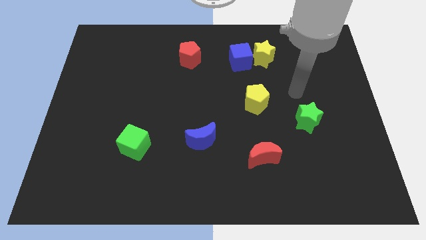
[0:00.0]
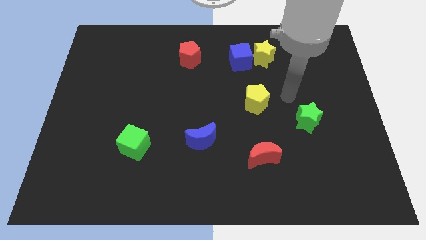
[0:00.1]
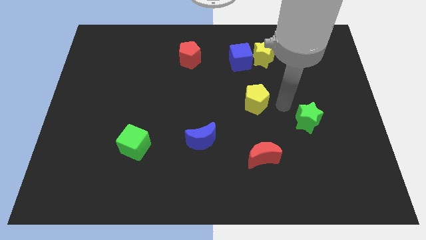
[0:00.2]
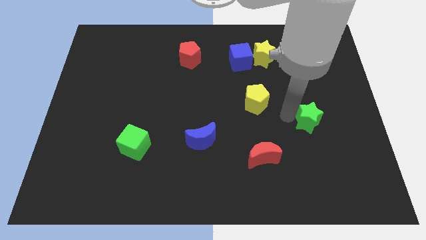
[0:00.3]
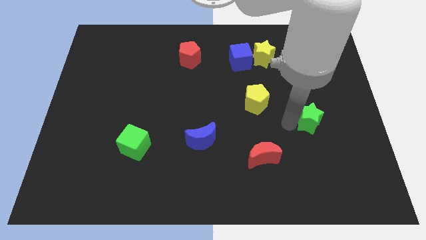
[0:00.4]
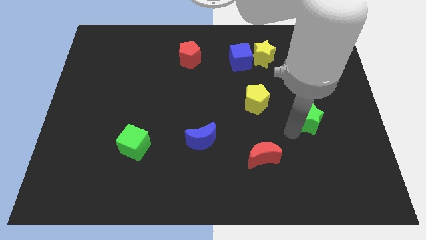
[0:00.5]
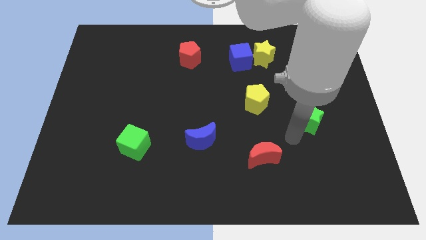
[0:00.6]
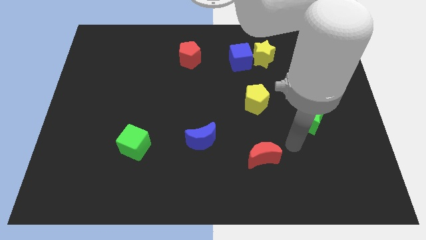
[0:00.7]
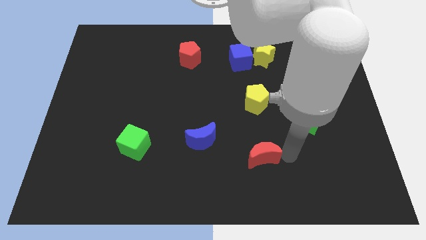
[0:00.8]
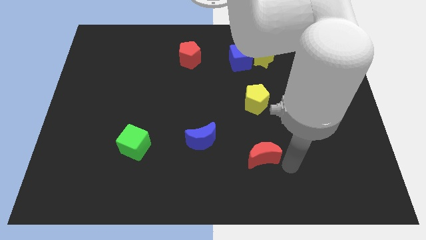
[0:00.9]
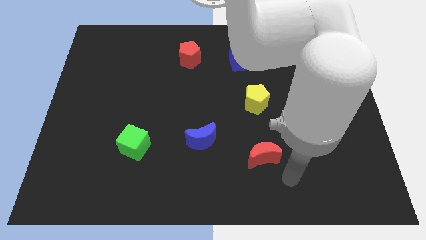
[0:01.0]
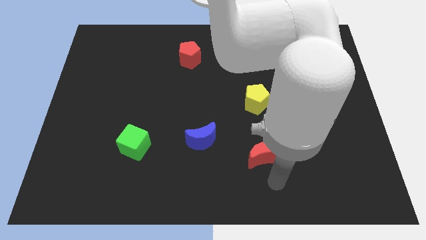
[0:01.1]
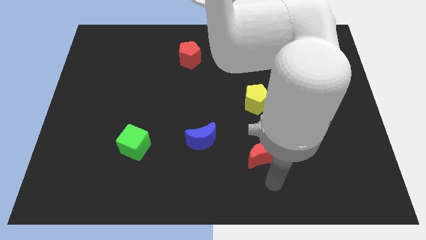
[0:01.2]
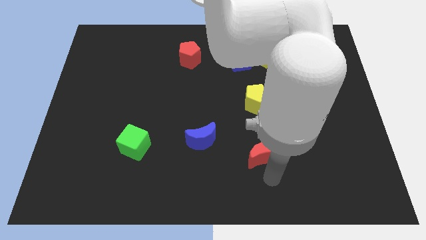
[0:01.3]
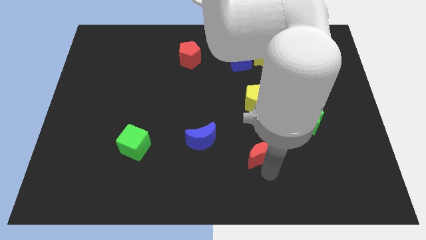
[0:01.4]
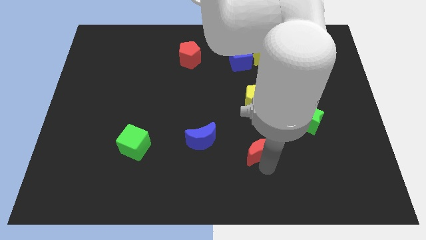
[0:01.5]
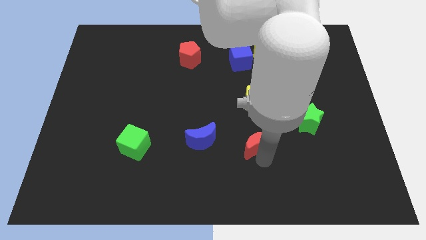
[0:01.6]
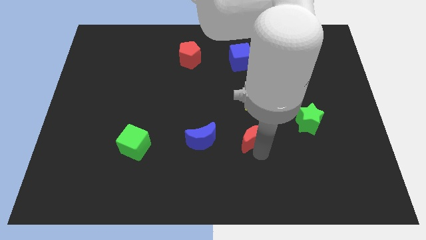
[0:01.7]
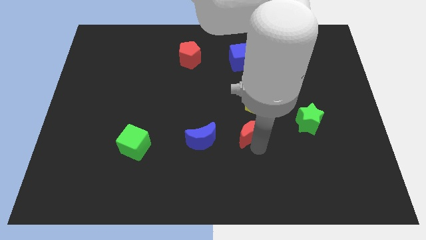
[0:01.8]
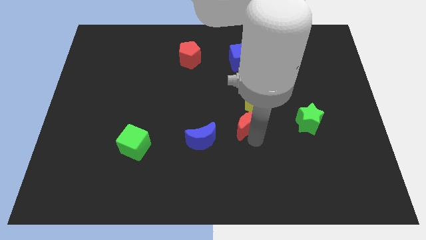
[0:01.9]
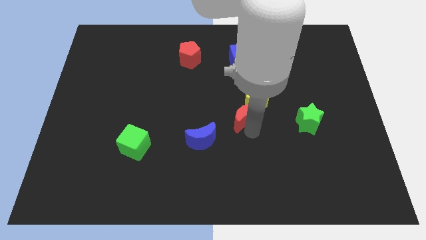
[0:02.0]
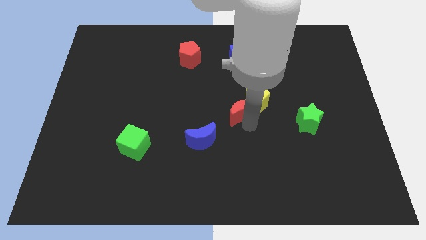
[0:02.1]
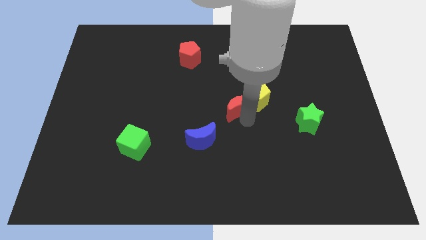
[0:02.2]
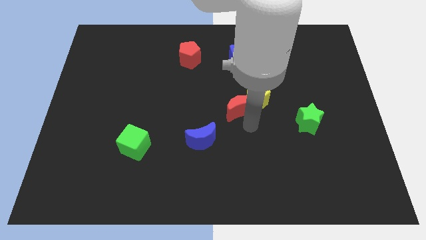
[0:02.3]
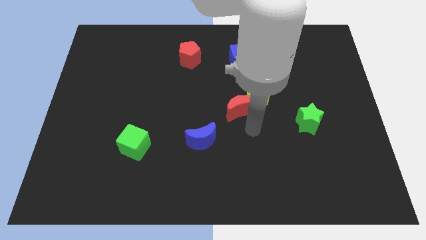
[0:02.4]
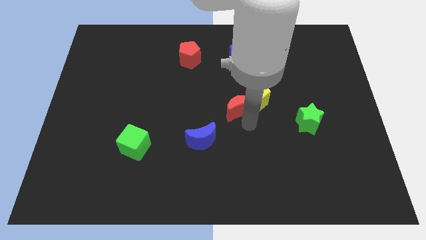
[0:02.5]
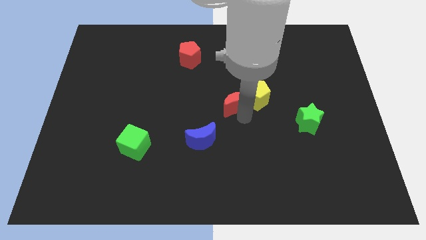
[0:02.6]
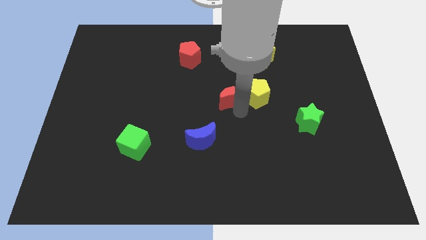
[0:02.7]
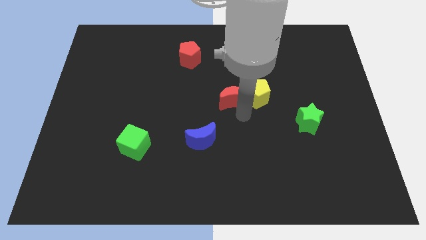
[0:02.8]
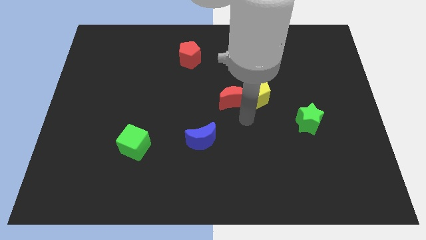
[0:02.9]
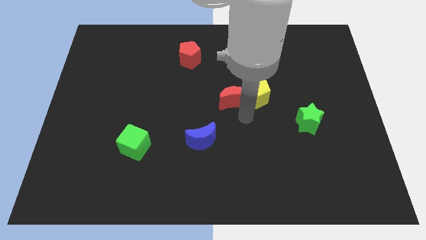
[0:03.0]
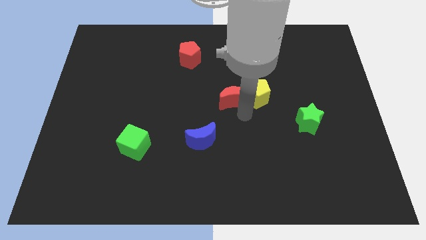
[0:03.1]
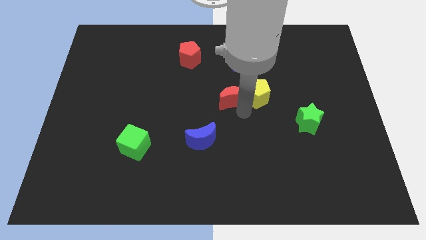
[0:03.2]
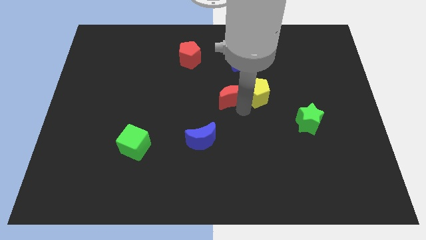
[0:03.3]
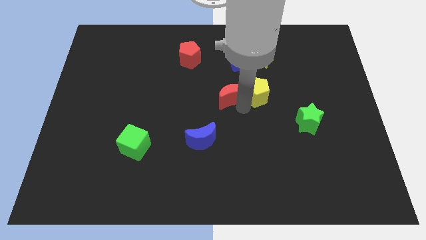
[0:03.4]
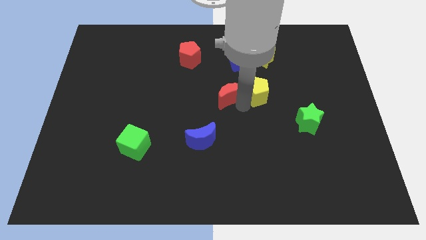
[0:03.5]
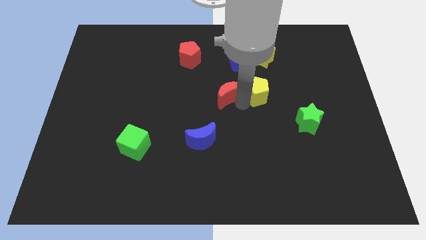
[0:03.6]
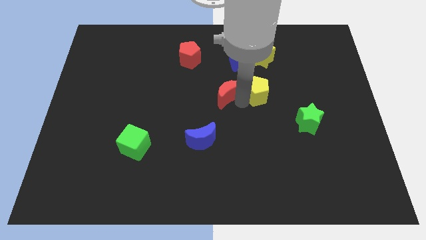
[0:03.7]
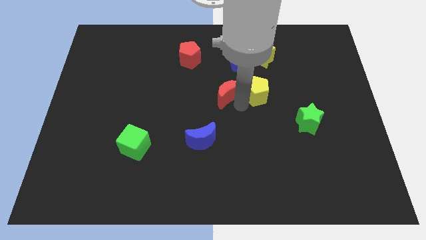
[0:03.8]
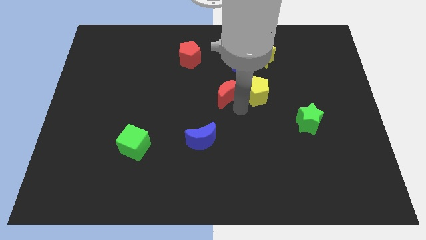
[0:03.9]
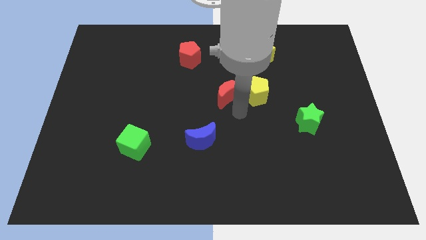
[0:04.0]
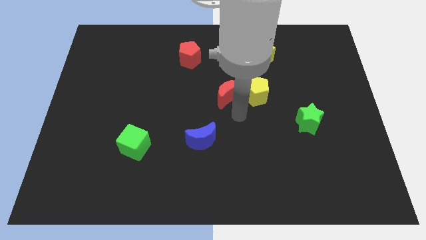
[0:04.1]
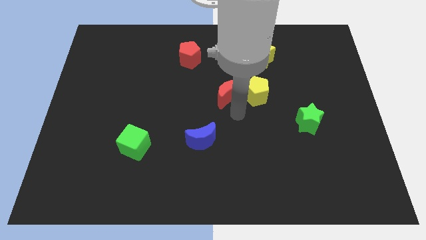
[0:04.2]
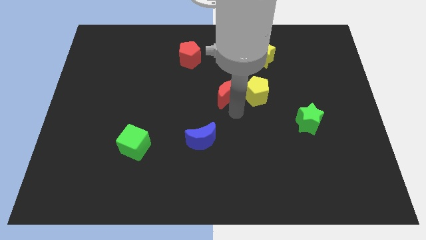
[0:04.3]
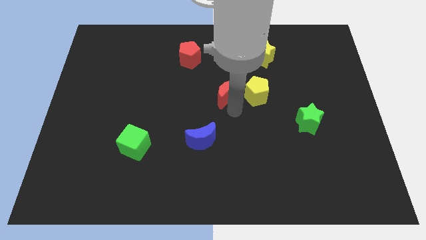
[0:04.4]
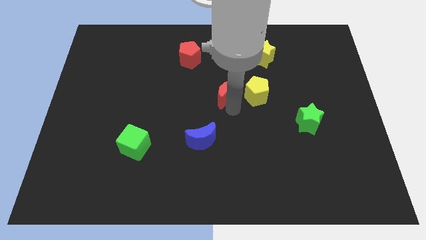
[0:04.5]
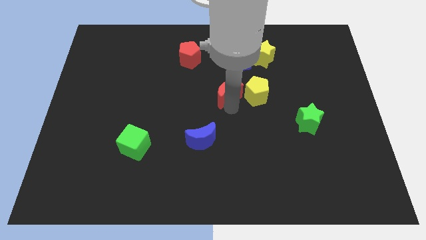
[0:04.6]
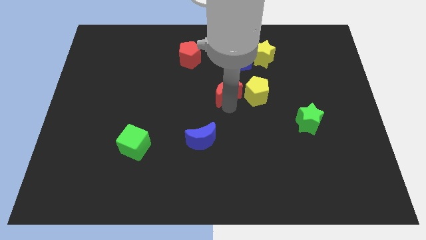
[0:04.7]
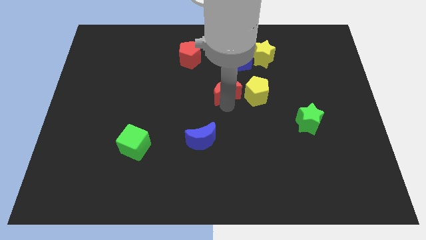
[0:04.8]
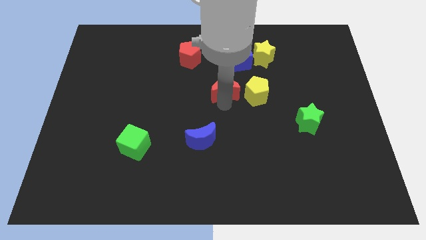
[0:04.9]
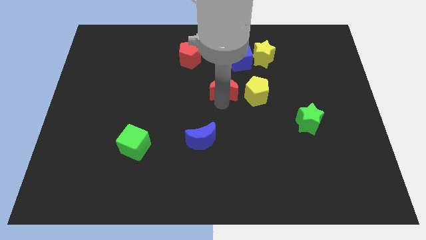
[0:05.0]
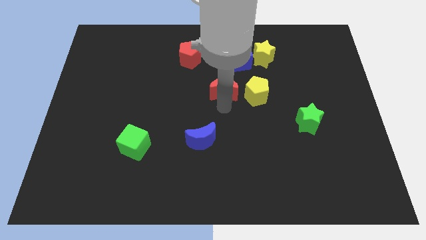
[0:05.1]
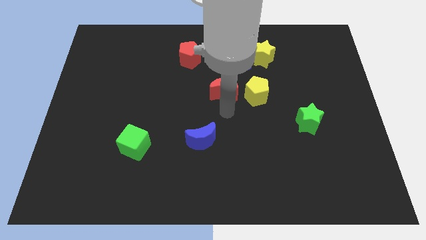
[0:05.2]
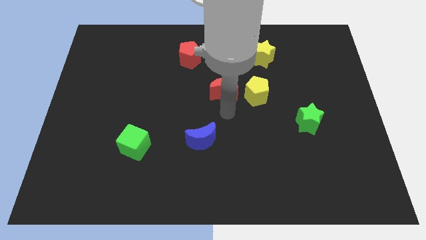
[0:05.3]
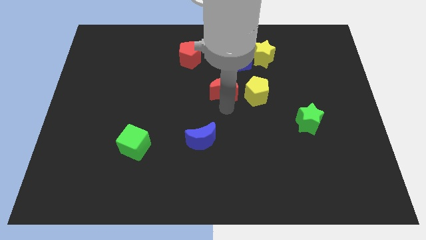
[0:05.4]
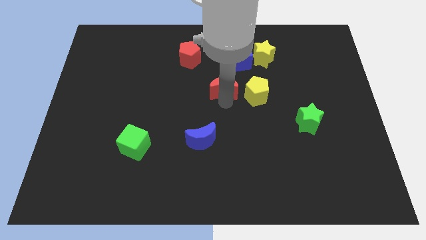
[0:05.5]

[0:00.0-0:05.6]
move the red moon diagonally down and to the left of the blue cube

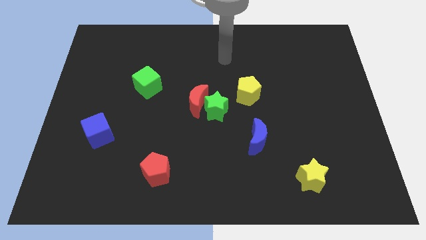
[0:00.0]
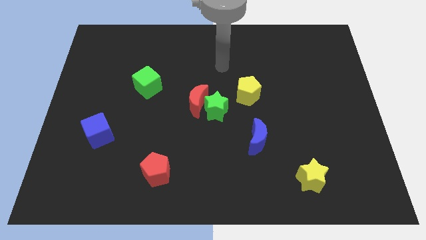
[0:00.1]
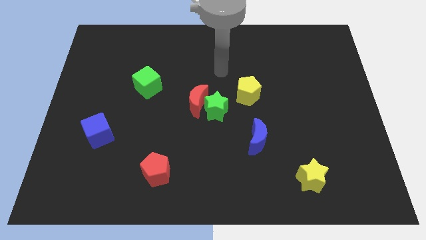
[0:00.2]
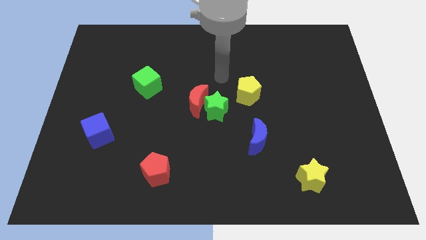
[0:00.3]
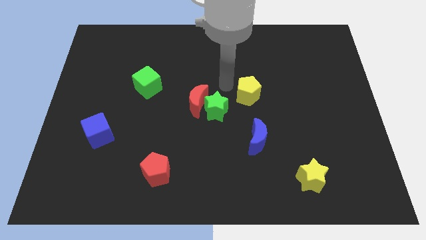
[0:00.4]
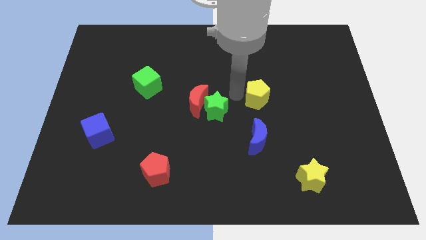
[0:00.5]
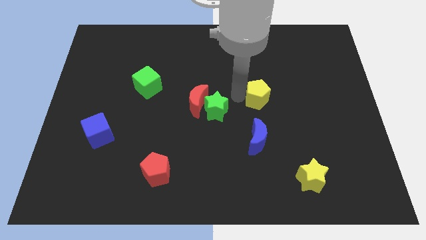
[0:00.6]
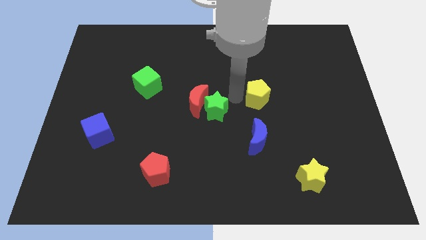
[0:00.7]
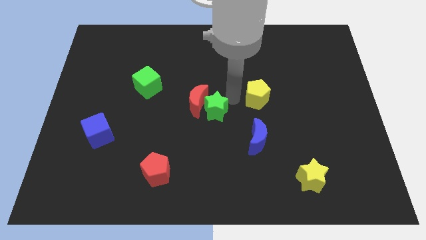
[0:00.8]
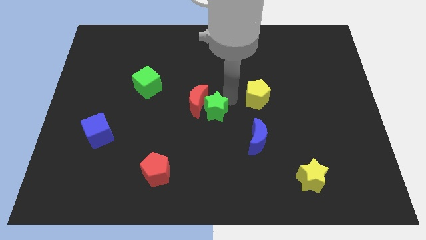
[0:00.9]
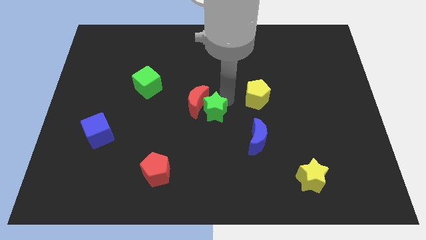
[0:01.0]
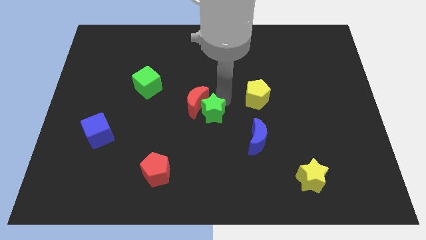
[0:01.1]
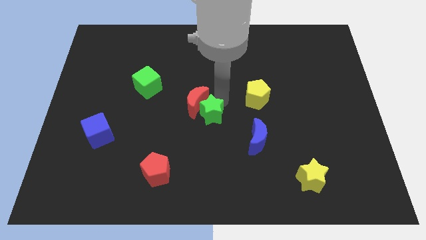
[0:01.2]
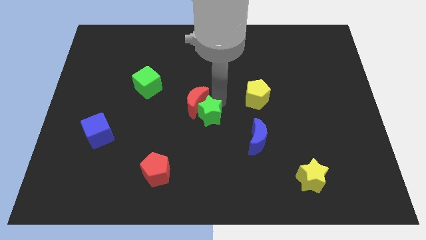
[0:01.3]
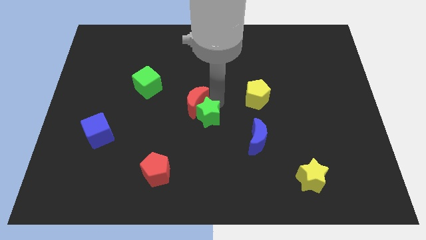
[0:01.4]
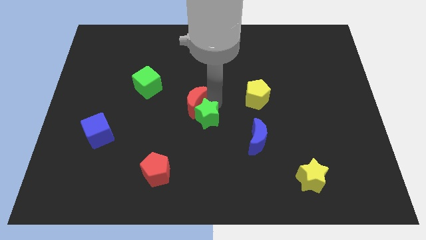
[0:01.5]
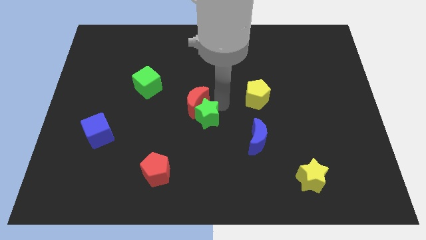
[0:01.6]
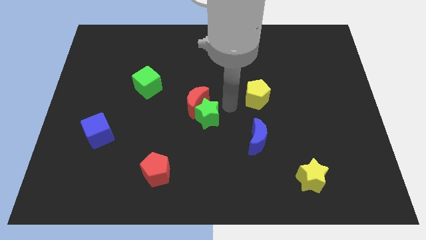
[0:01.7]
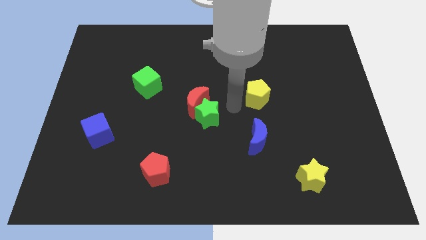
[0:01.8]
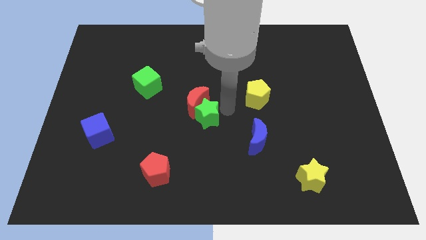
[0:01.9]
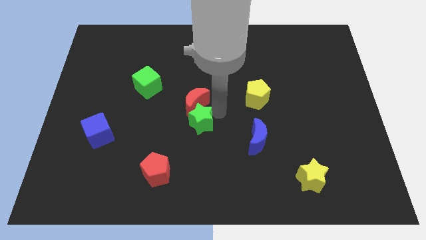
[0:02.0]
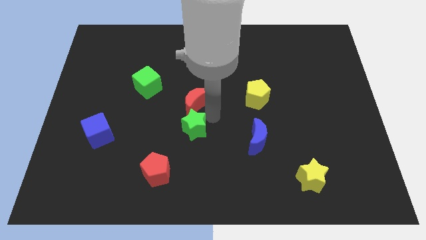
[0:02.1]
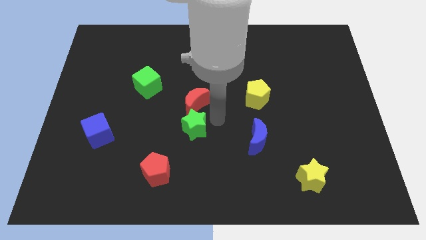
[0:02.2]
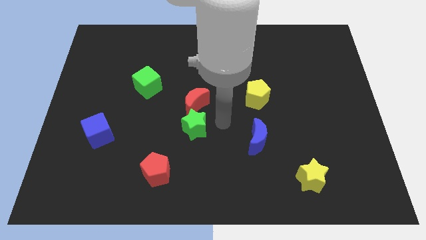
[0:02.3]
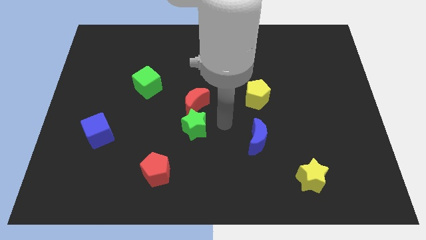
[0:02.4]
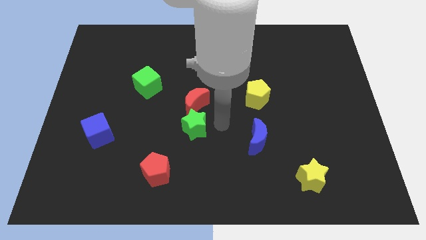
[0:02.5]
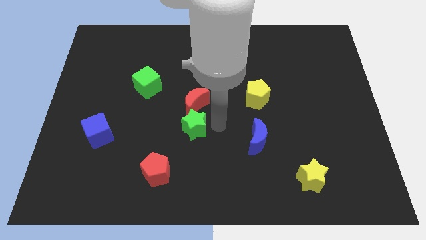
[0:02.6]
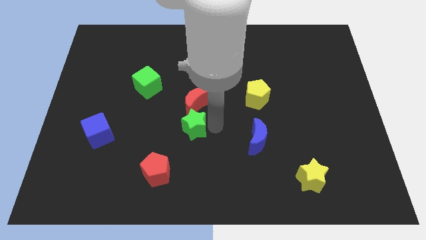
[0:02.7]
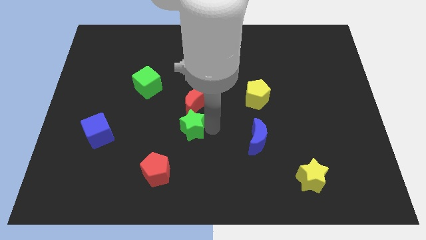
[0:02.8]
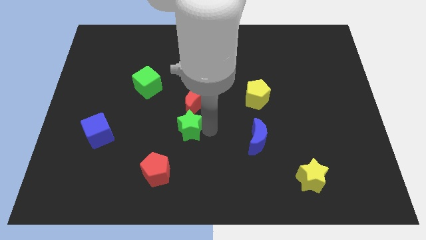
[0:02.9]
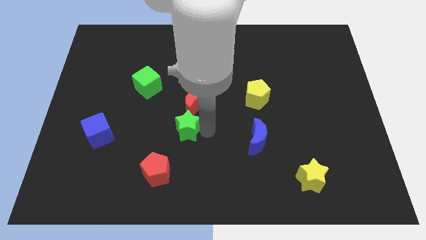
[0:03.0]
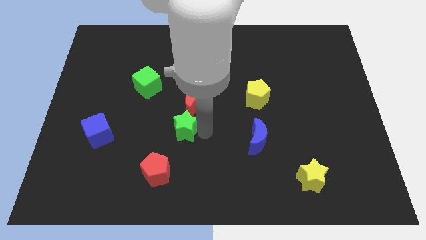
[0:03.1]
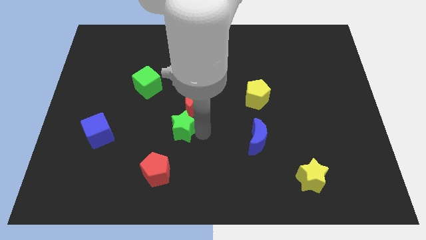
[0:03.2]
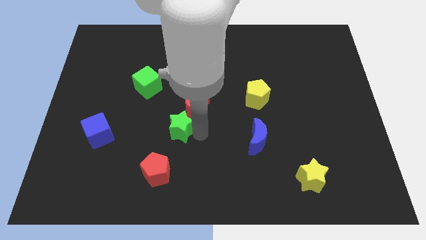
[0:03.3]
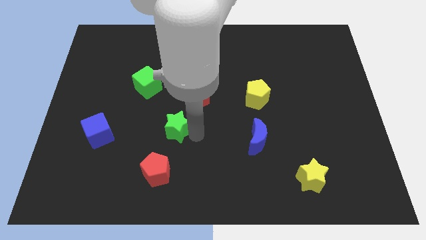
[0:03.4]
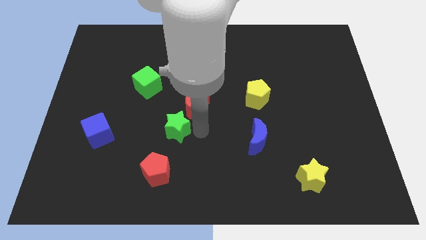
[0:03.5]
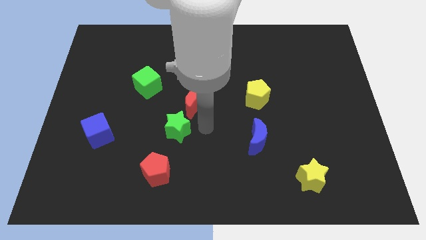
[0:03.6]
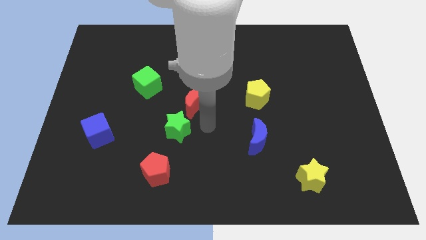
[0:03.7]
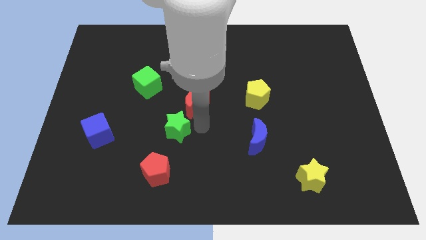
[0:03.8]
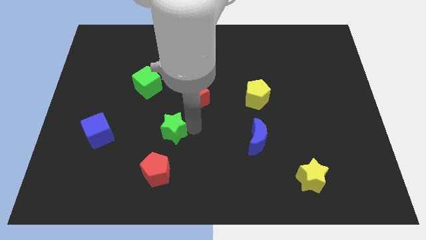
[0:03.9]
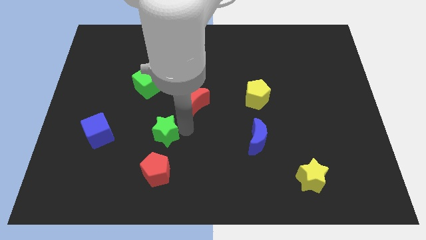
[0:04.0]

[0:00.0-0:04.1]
slide the green star just right of the blue cube
